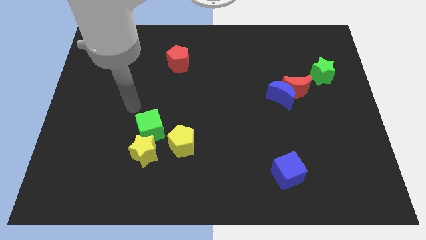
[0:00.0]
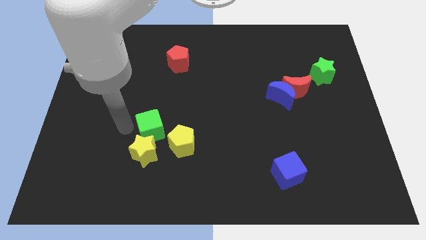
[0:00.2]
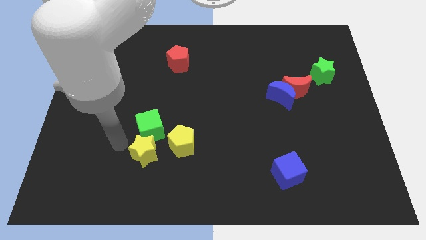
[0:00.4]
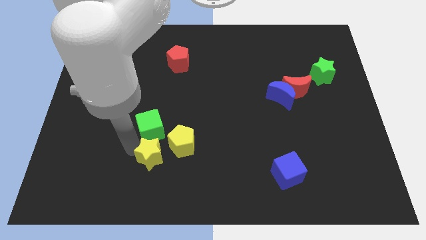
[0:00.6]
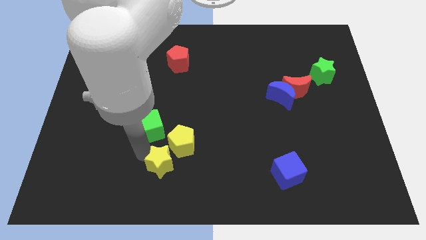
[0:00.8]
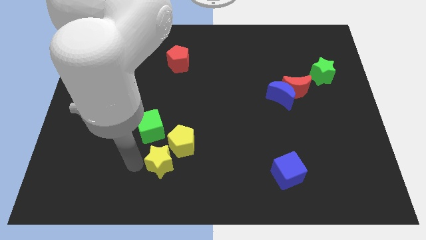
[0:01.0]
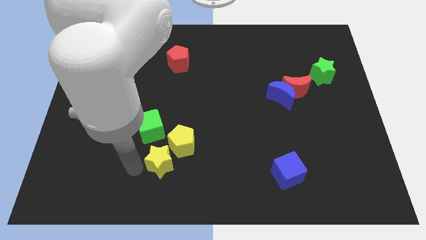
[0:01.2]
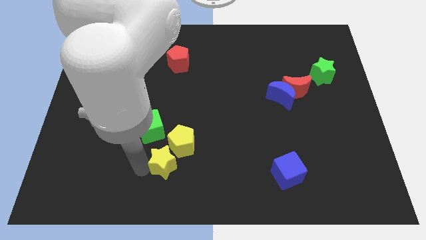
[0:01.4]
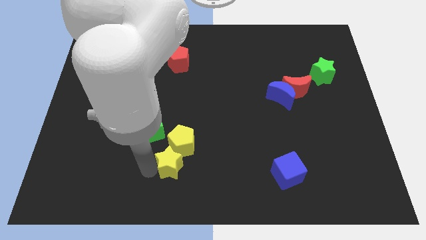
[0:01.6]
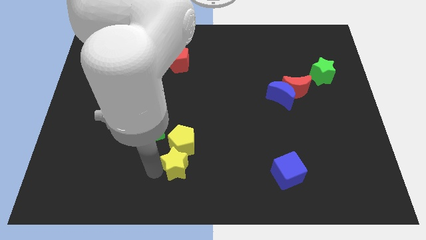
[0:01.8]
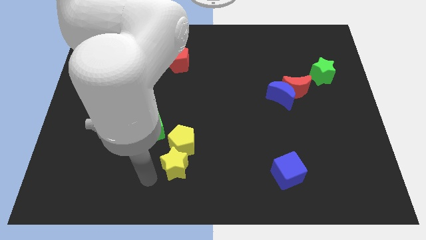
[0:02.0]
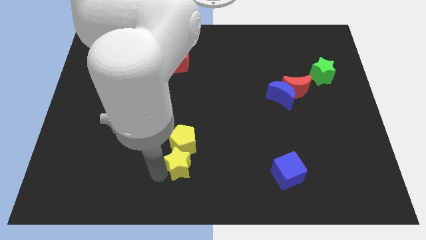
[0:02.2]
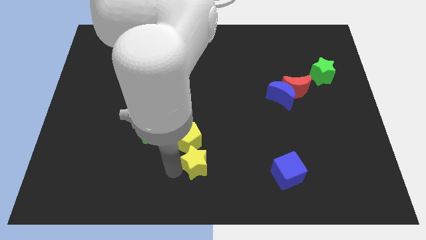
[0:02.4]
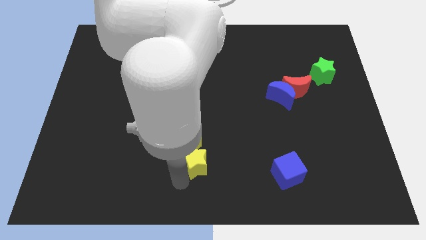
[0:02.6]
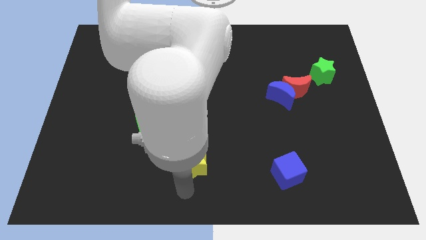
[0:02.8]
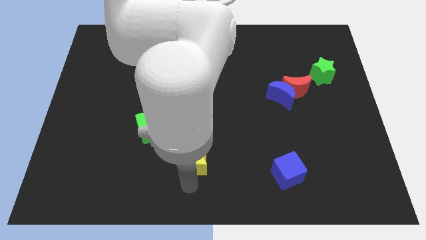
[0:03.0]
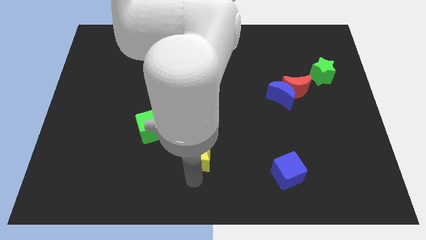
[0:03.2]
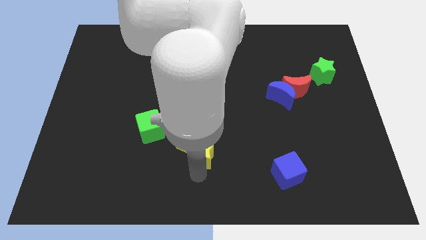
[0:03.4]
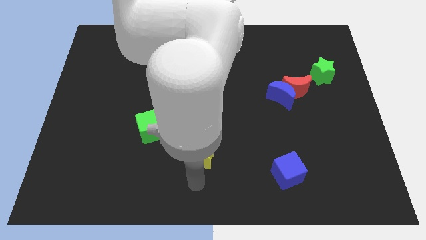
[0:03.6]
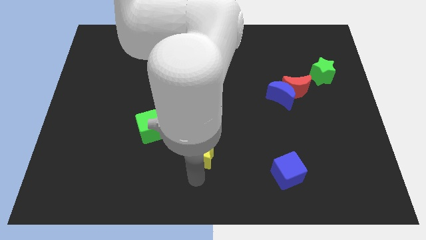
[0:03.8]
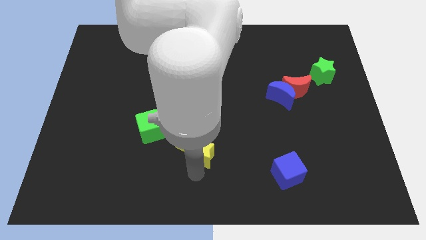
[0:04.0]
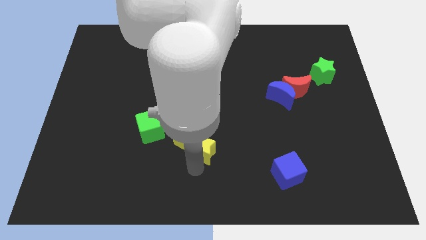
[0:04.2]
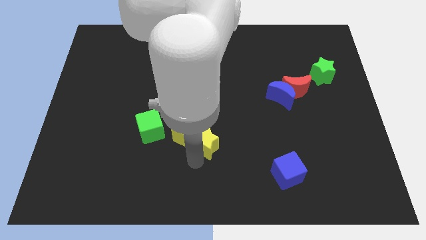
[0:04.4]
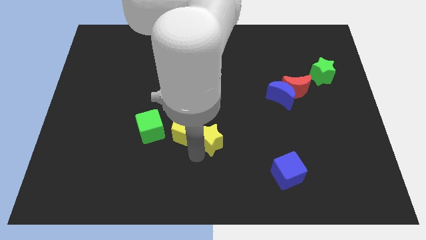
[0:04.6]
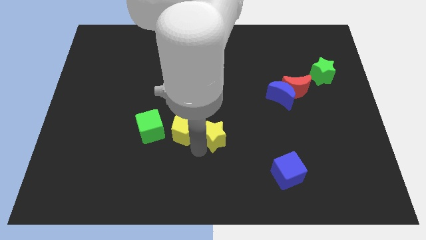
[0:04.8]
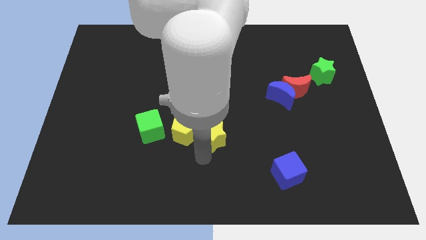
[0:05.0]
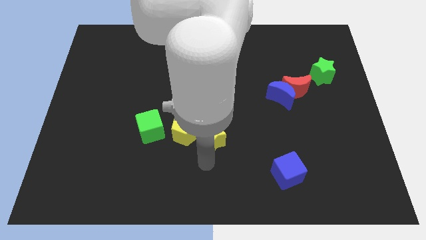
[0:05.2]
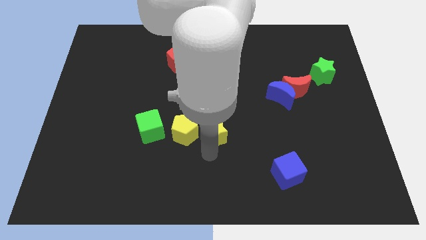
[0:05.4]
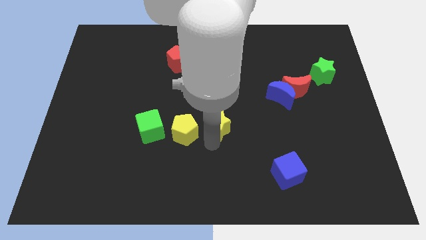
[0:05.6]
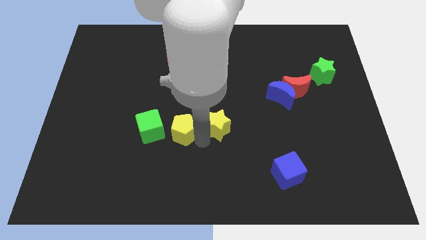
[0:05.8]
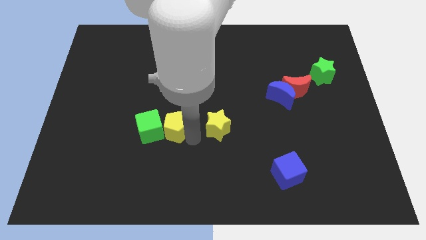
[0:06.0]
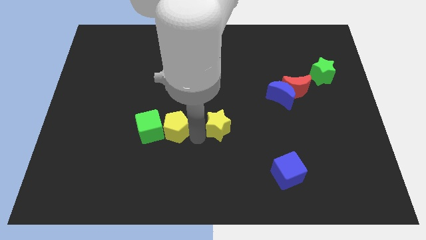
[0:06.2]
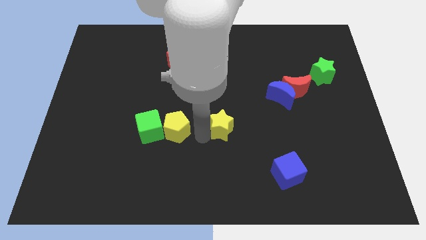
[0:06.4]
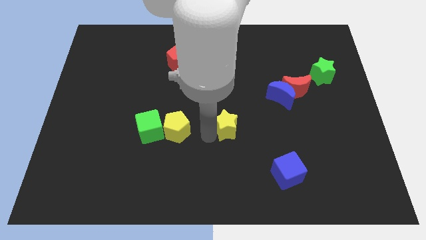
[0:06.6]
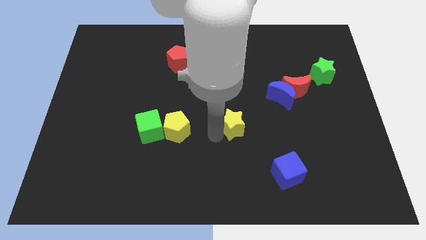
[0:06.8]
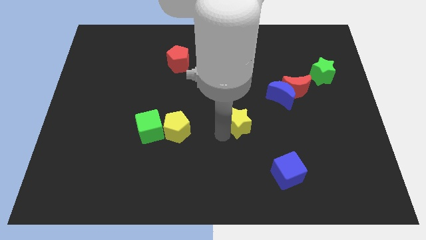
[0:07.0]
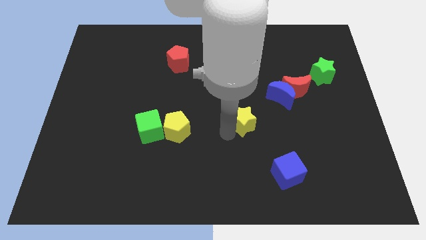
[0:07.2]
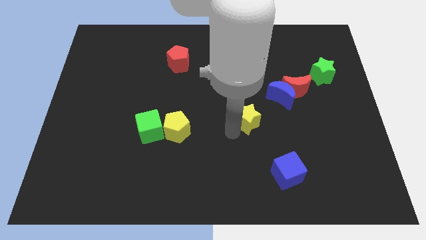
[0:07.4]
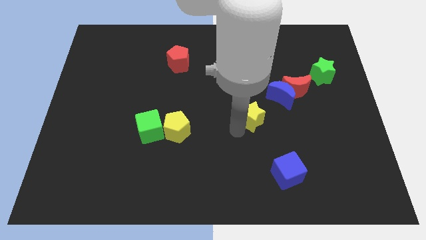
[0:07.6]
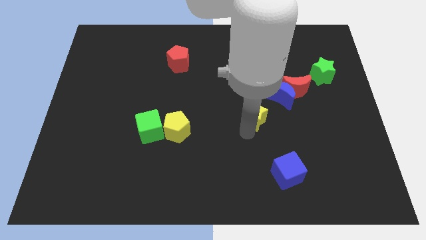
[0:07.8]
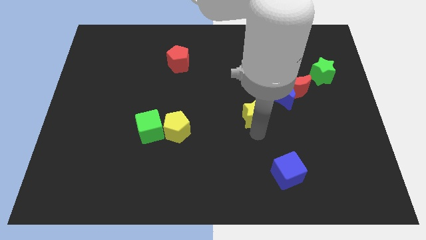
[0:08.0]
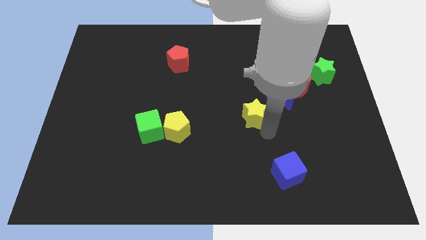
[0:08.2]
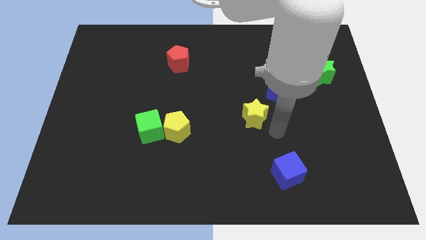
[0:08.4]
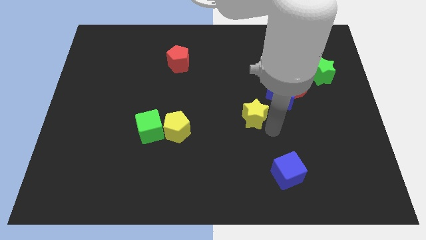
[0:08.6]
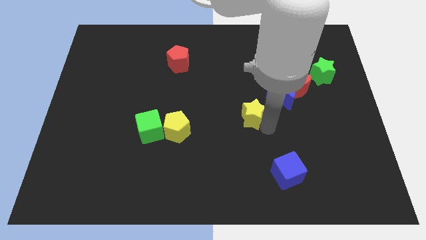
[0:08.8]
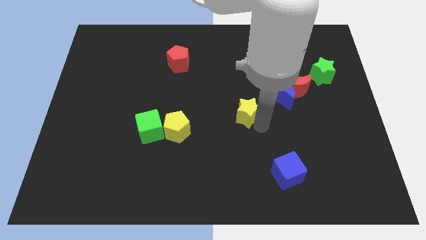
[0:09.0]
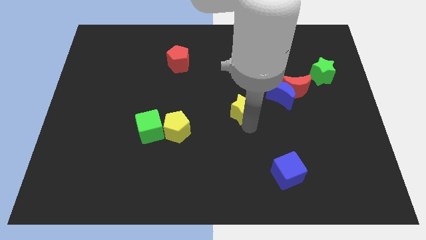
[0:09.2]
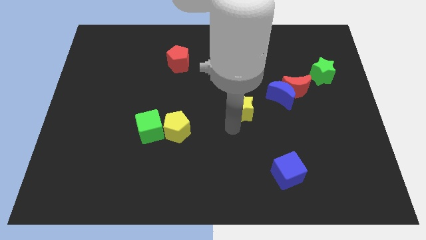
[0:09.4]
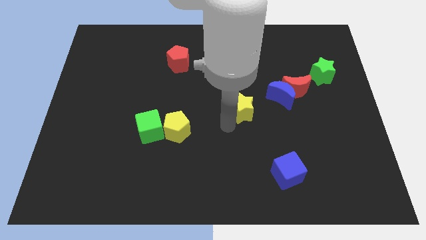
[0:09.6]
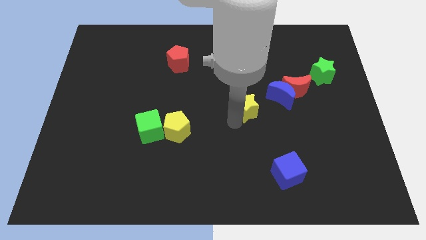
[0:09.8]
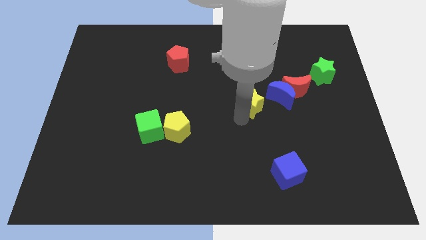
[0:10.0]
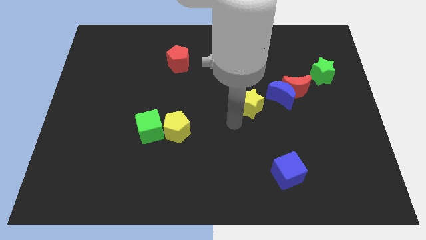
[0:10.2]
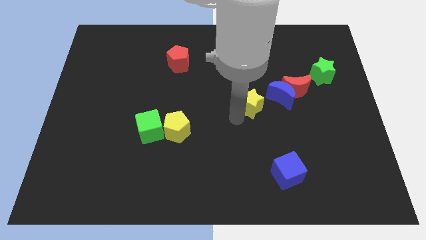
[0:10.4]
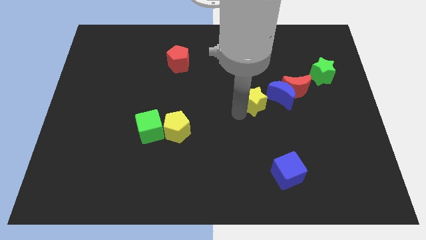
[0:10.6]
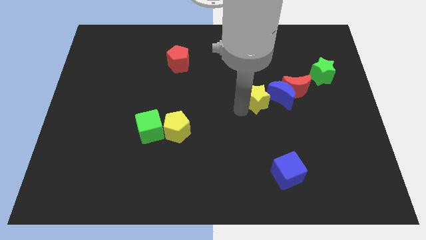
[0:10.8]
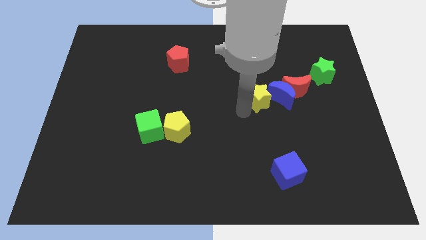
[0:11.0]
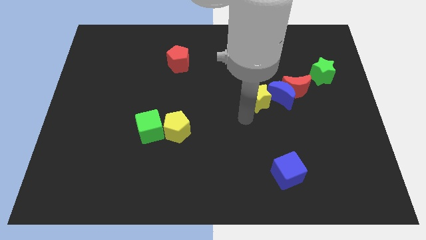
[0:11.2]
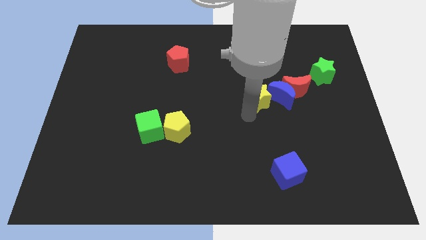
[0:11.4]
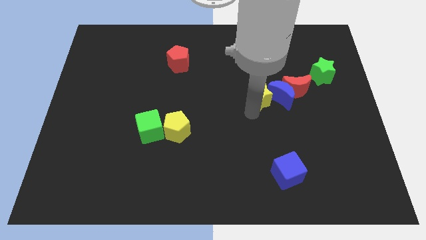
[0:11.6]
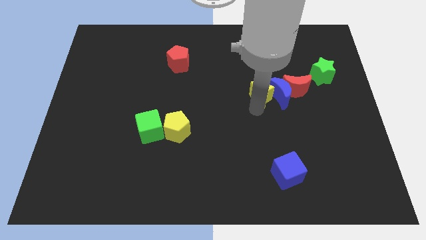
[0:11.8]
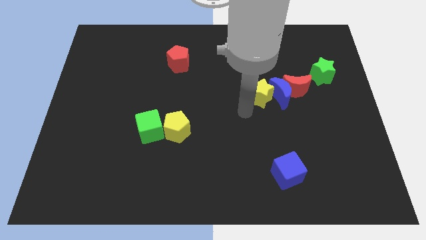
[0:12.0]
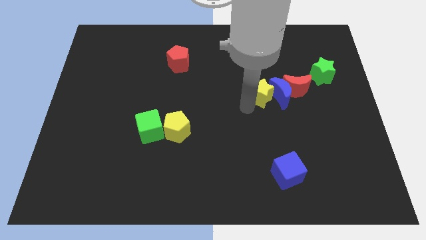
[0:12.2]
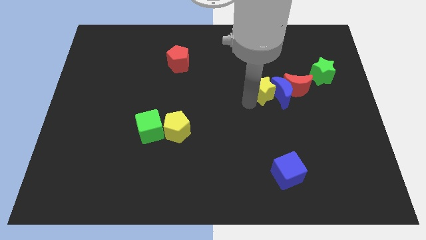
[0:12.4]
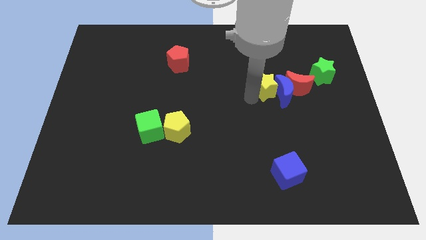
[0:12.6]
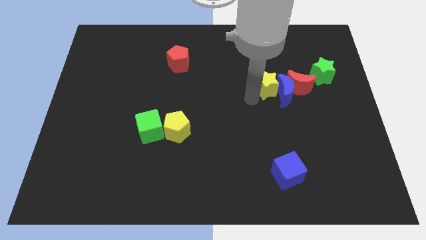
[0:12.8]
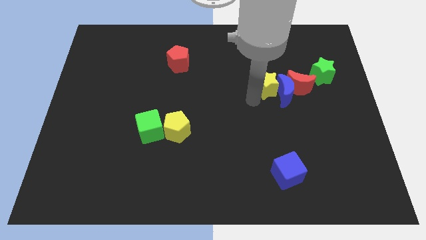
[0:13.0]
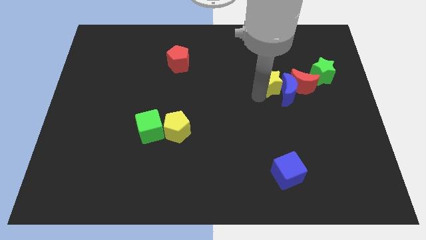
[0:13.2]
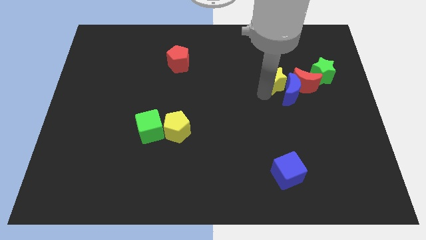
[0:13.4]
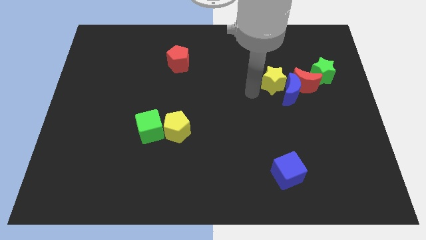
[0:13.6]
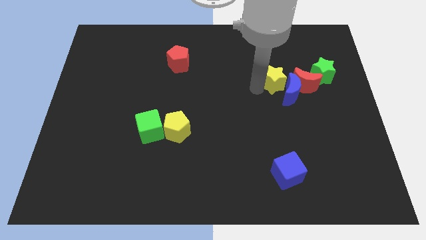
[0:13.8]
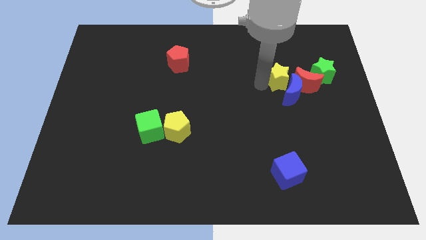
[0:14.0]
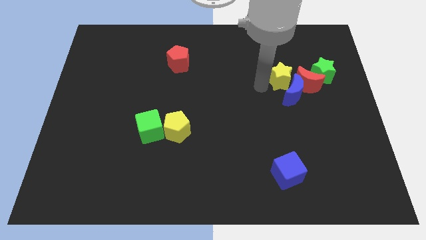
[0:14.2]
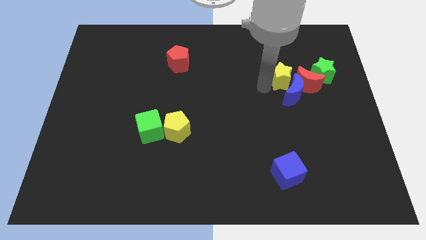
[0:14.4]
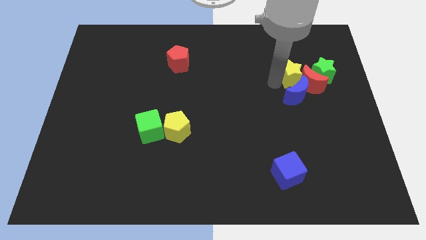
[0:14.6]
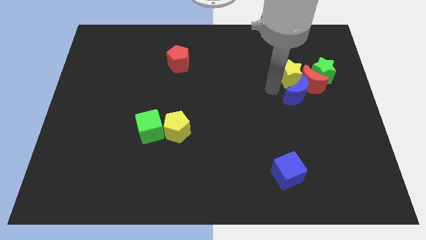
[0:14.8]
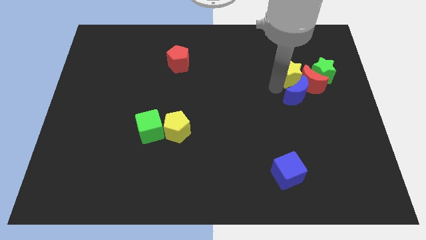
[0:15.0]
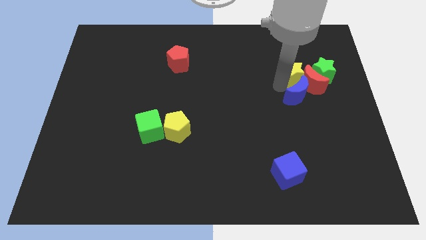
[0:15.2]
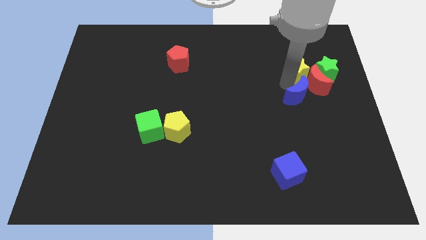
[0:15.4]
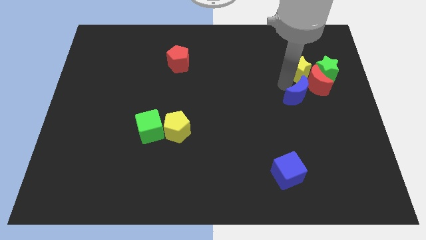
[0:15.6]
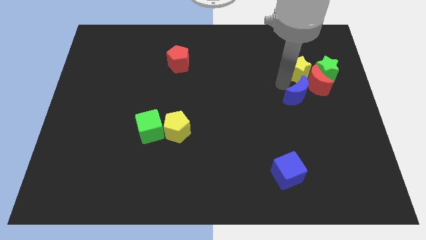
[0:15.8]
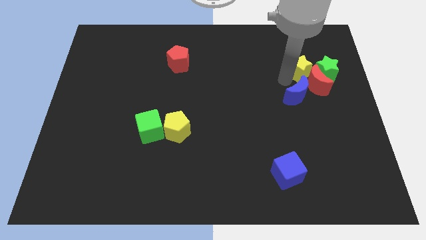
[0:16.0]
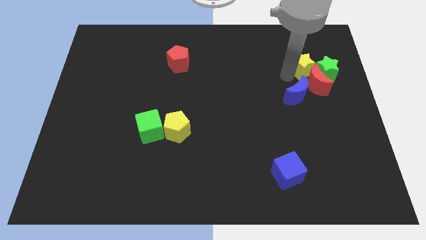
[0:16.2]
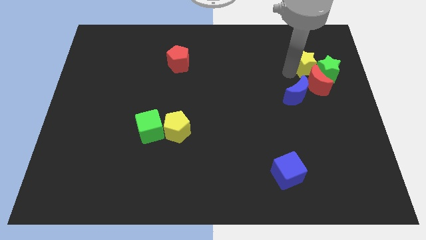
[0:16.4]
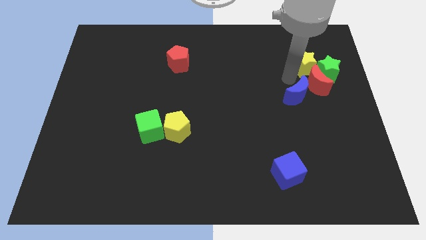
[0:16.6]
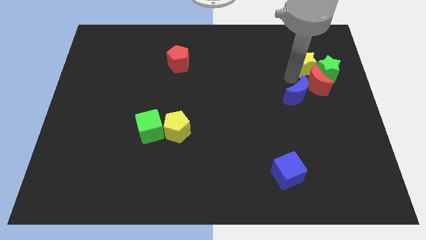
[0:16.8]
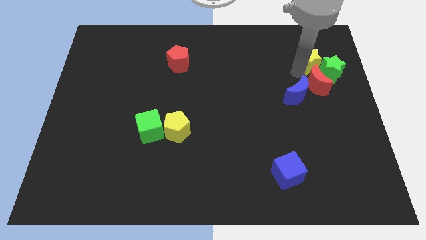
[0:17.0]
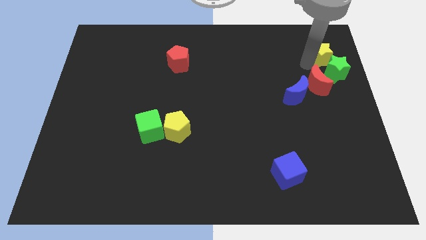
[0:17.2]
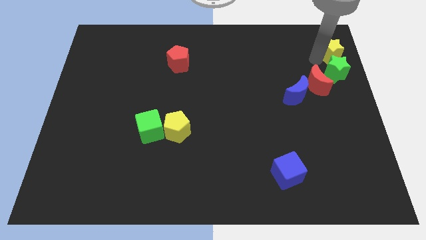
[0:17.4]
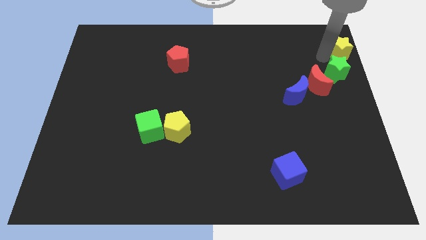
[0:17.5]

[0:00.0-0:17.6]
slide the yellow star to the top right of the board
